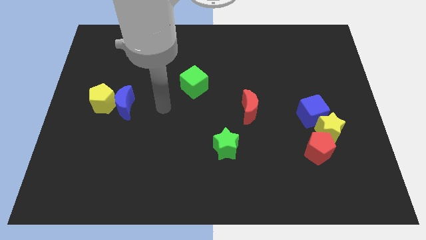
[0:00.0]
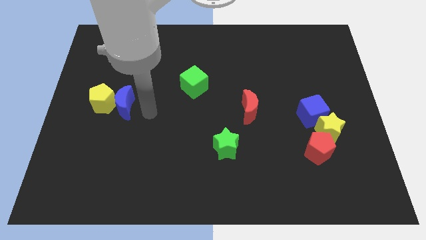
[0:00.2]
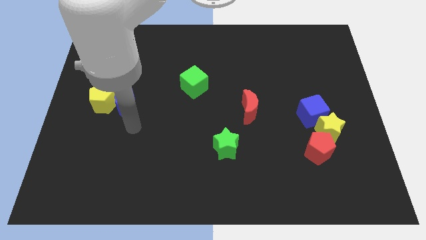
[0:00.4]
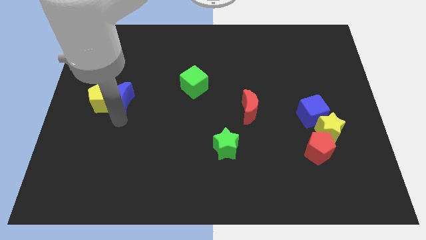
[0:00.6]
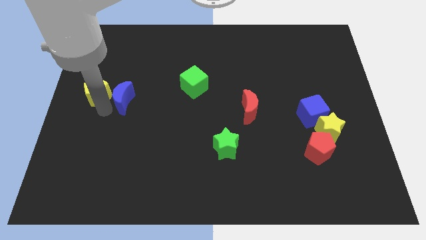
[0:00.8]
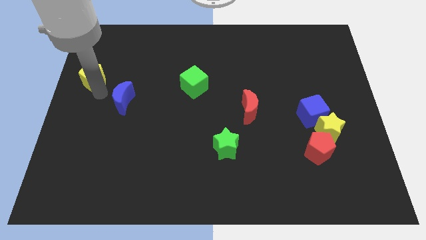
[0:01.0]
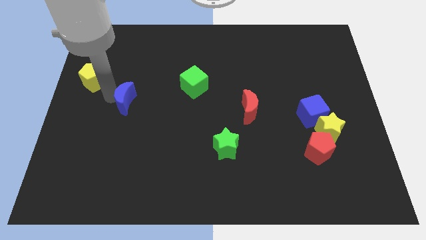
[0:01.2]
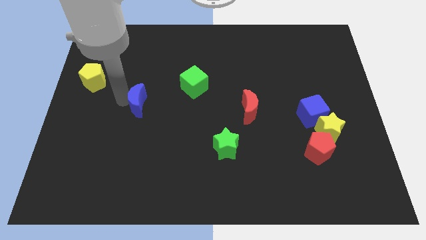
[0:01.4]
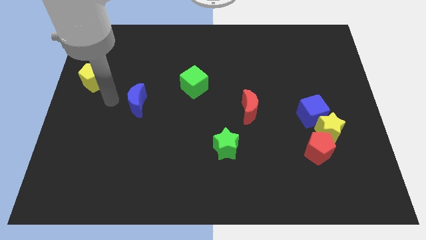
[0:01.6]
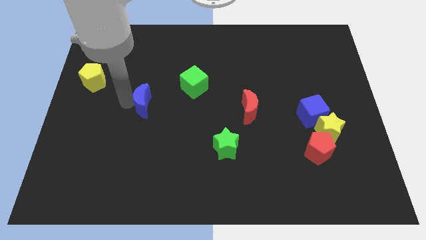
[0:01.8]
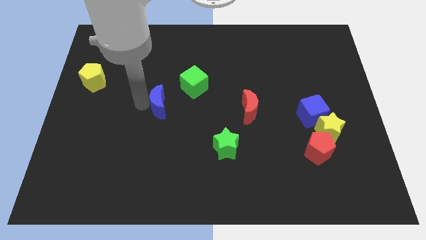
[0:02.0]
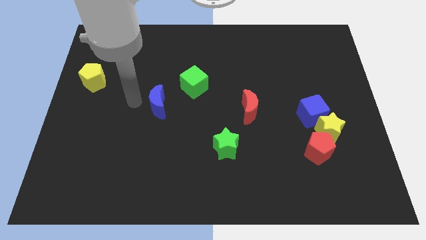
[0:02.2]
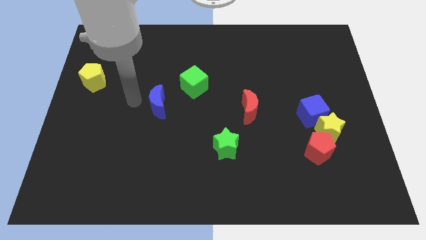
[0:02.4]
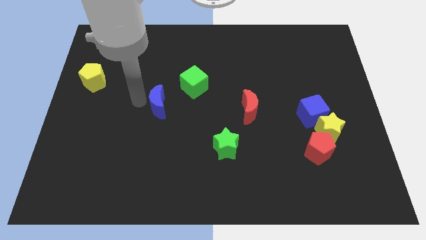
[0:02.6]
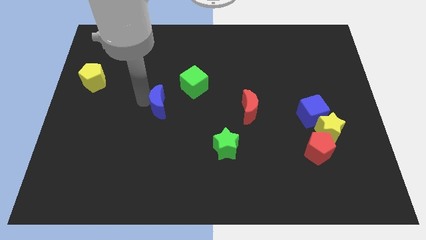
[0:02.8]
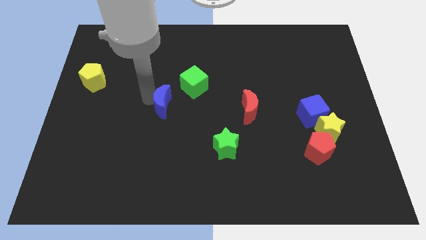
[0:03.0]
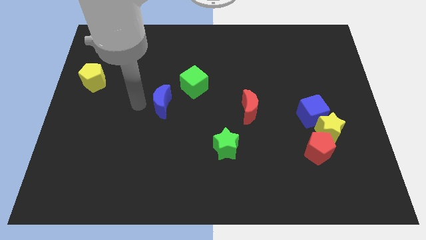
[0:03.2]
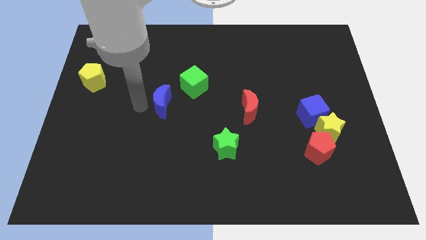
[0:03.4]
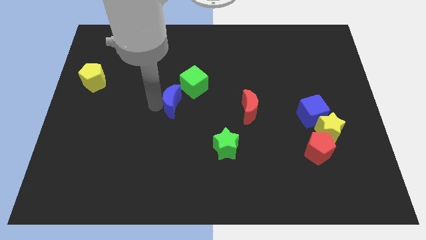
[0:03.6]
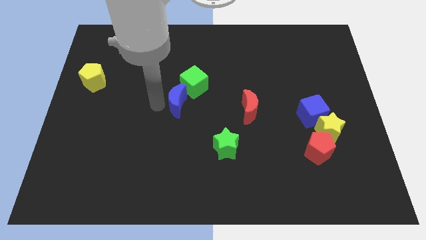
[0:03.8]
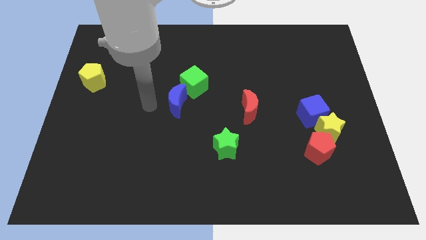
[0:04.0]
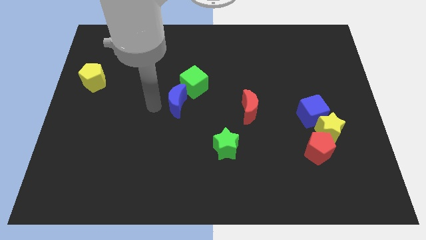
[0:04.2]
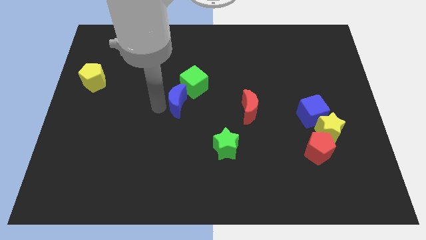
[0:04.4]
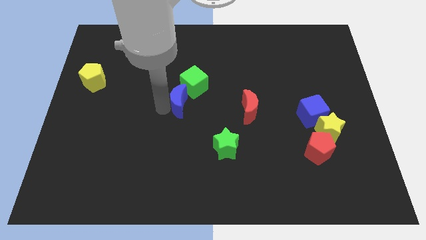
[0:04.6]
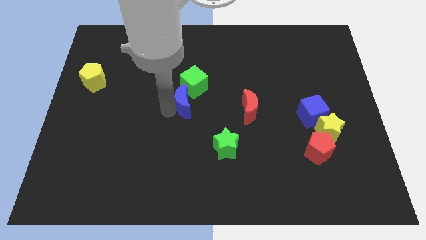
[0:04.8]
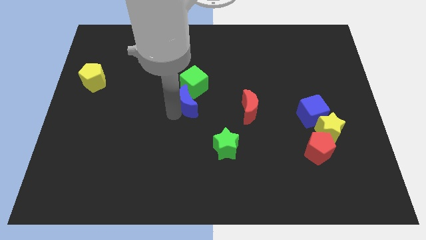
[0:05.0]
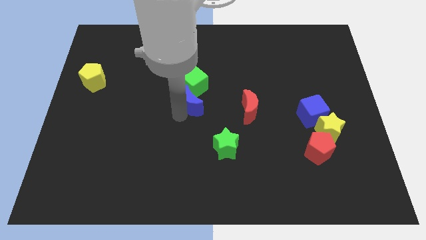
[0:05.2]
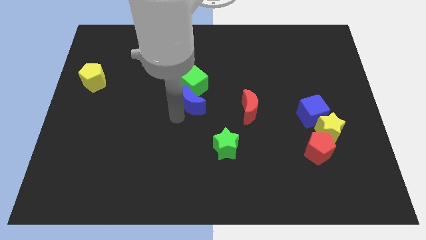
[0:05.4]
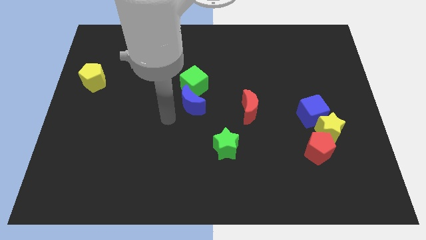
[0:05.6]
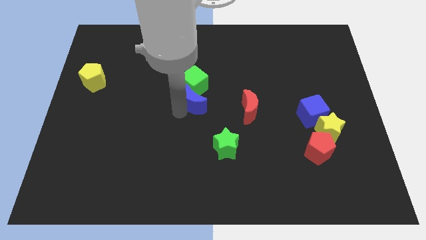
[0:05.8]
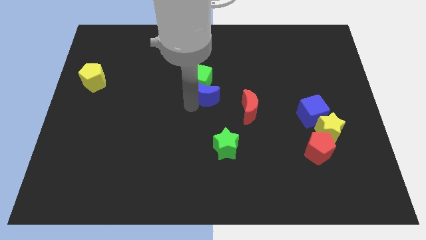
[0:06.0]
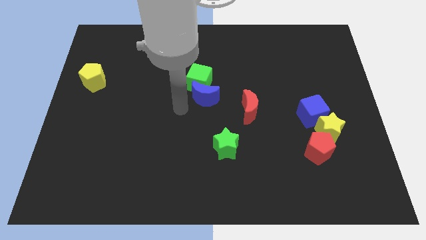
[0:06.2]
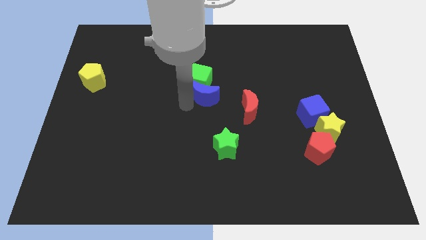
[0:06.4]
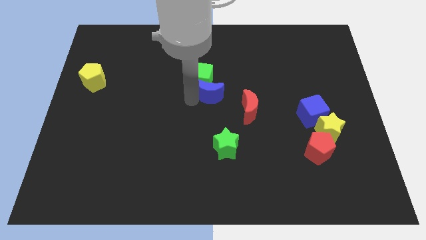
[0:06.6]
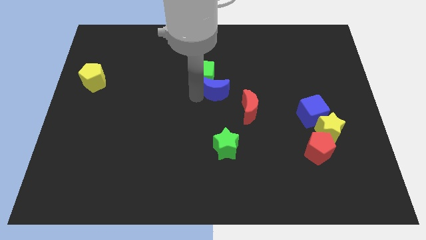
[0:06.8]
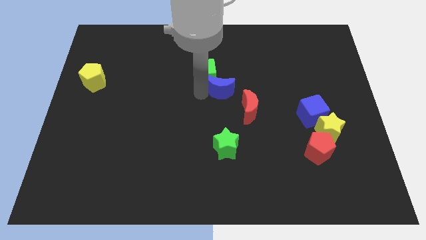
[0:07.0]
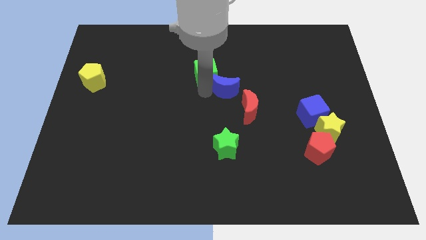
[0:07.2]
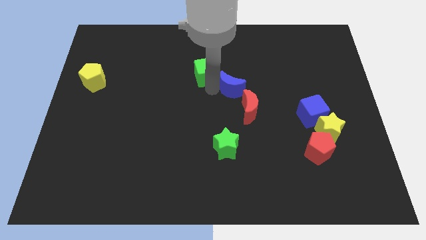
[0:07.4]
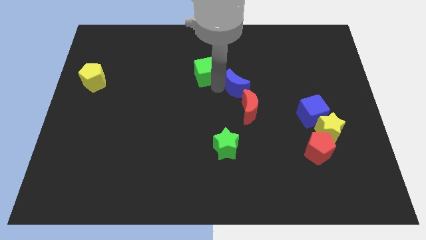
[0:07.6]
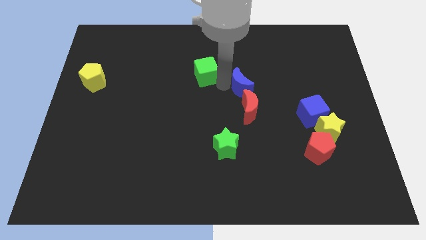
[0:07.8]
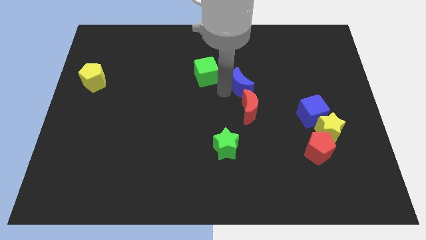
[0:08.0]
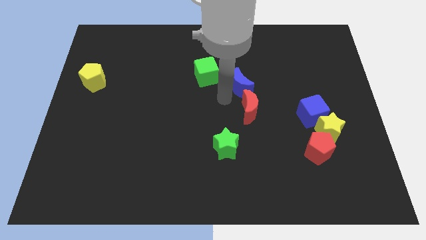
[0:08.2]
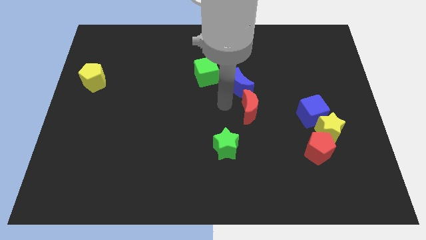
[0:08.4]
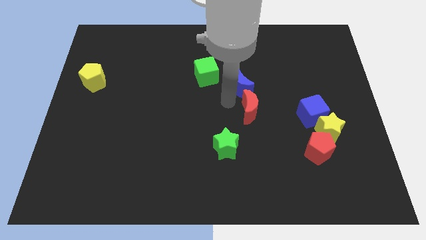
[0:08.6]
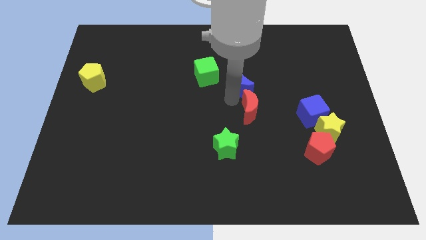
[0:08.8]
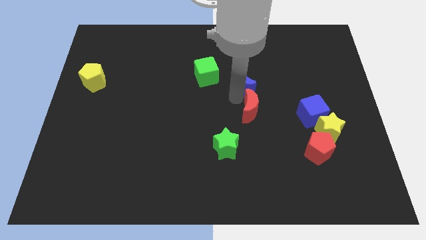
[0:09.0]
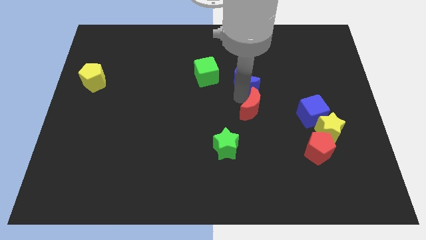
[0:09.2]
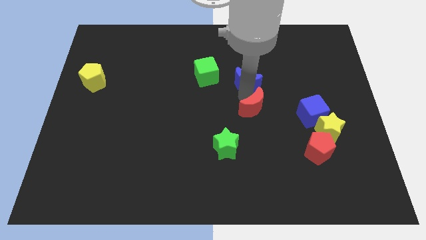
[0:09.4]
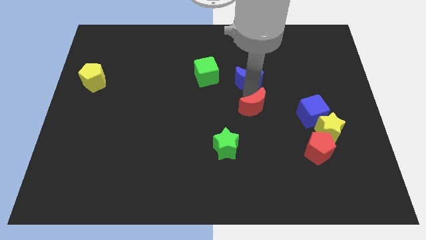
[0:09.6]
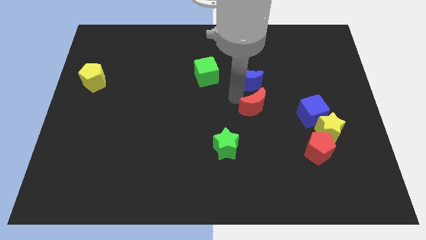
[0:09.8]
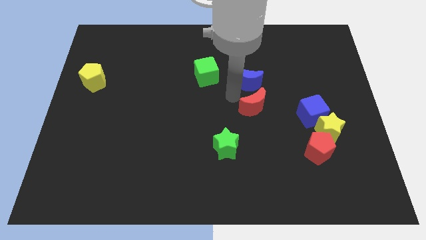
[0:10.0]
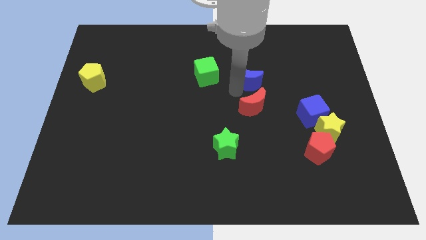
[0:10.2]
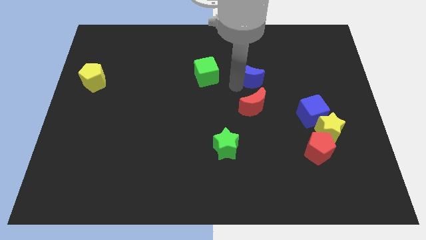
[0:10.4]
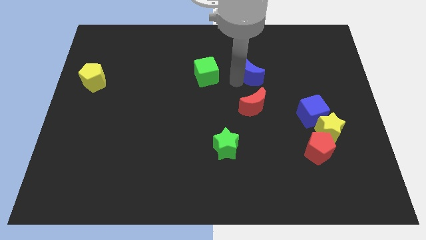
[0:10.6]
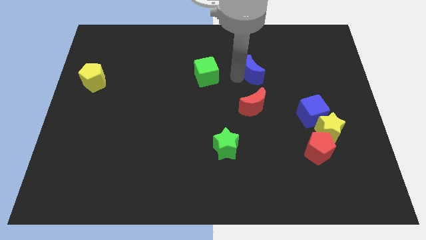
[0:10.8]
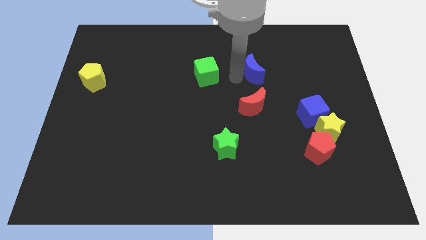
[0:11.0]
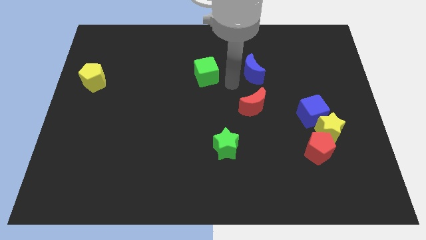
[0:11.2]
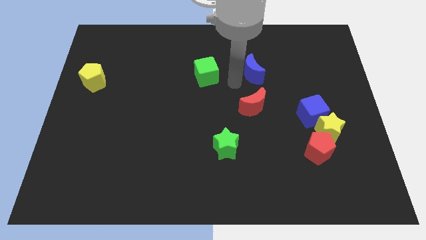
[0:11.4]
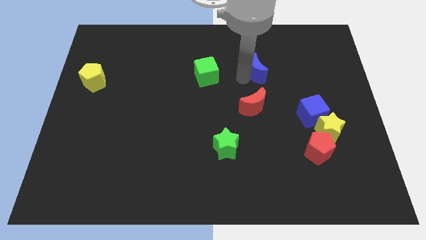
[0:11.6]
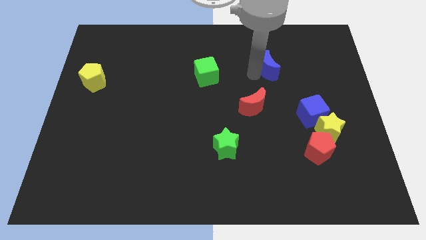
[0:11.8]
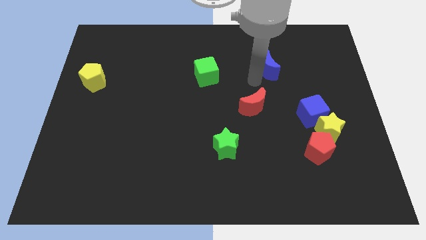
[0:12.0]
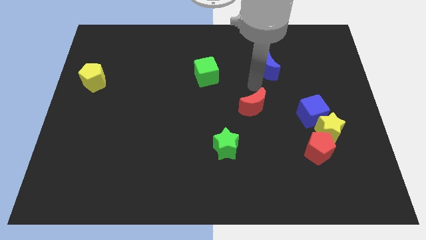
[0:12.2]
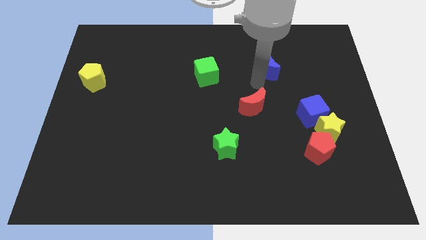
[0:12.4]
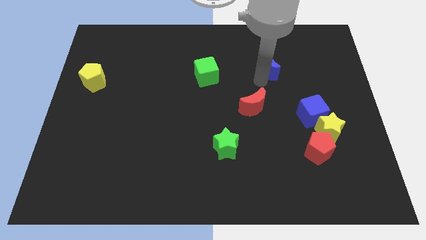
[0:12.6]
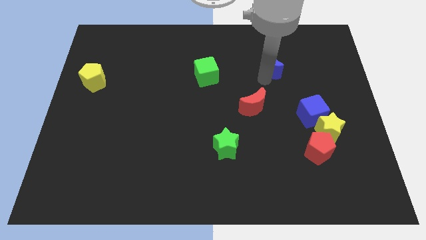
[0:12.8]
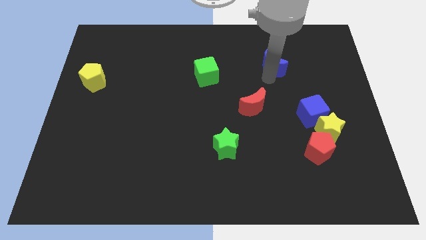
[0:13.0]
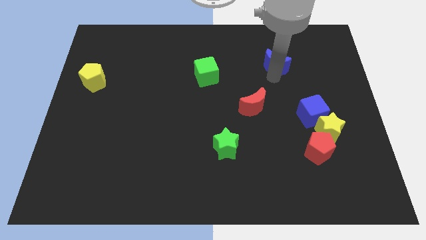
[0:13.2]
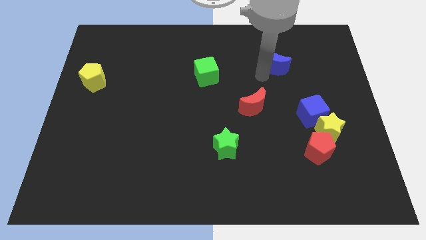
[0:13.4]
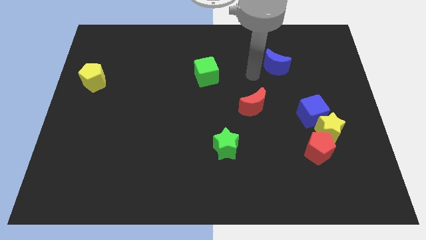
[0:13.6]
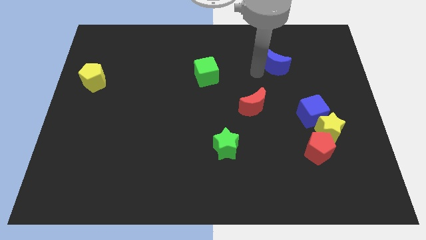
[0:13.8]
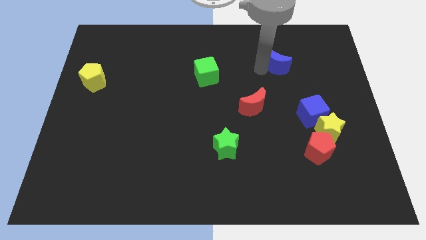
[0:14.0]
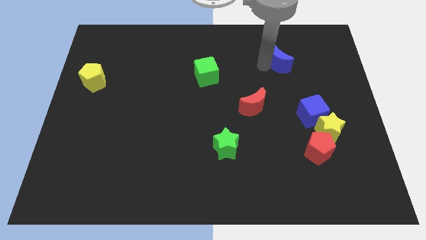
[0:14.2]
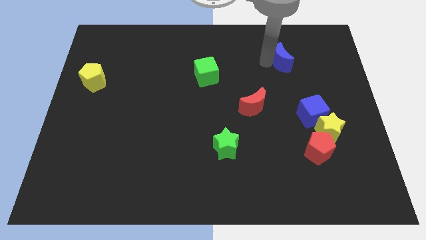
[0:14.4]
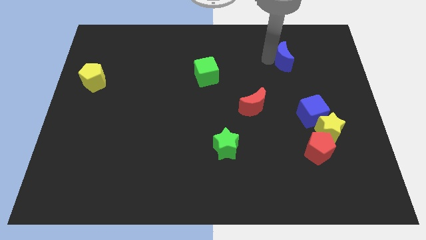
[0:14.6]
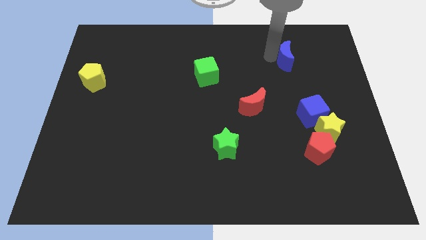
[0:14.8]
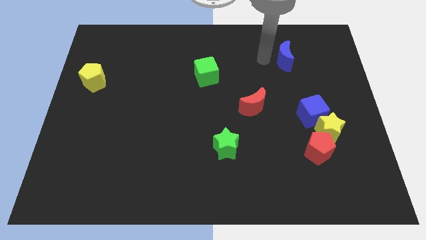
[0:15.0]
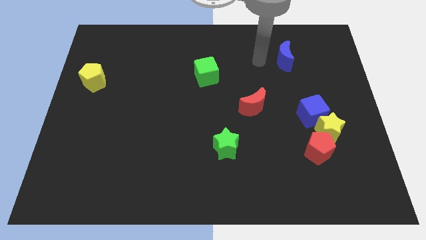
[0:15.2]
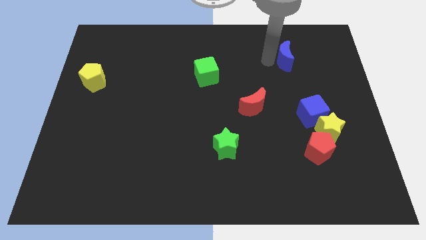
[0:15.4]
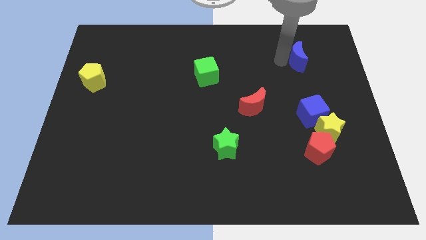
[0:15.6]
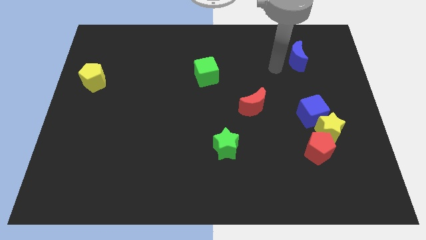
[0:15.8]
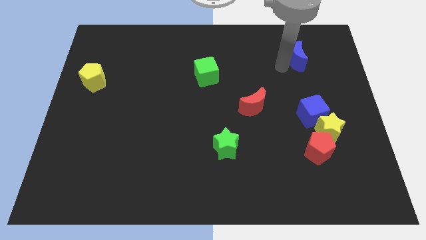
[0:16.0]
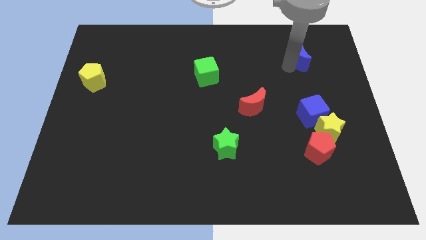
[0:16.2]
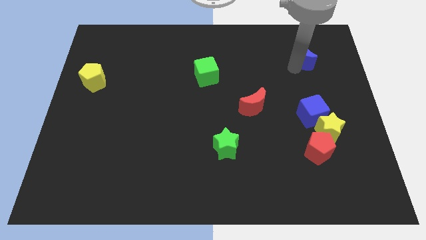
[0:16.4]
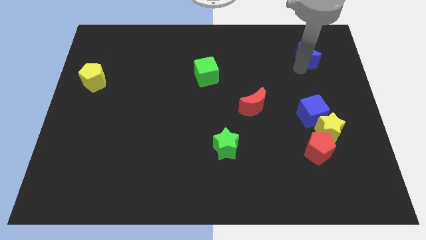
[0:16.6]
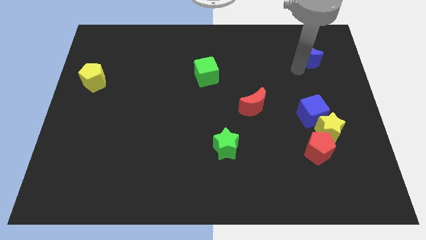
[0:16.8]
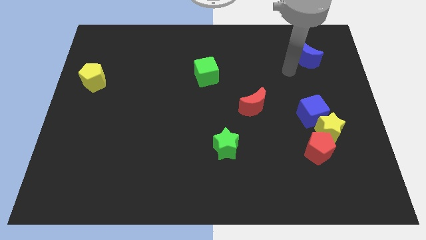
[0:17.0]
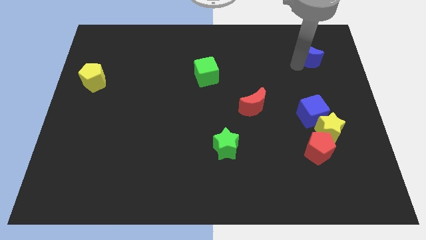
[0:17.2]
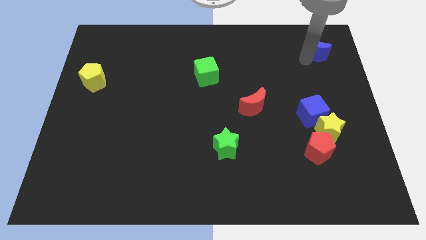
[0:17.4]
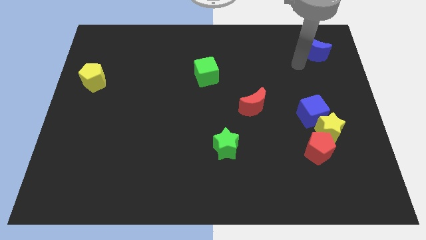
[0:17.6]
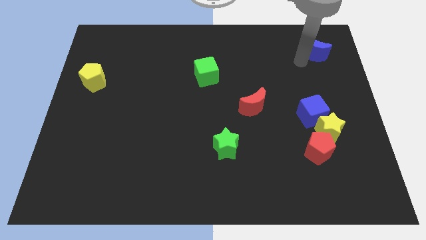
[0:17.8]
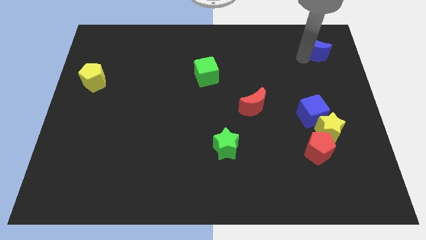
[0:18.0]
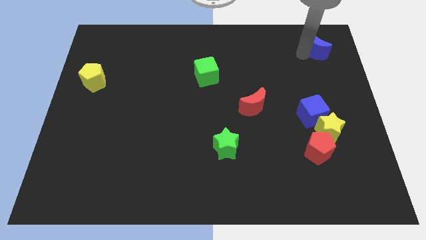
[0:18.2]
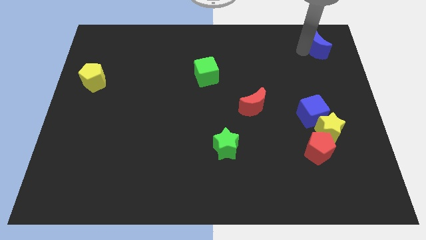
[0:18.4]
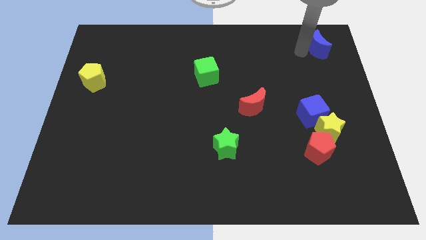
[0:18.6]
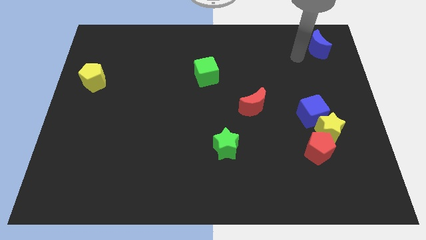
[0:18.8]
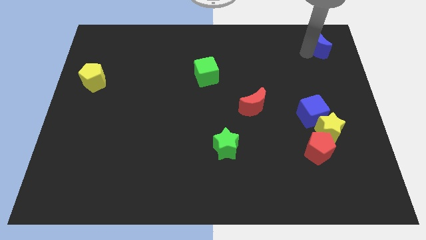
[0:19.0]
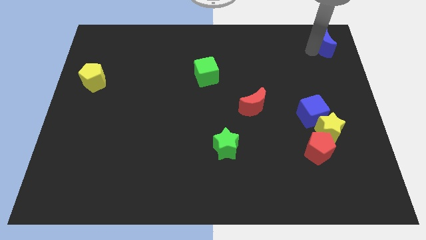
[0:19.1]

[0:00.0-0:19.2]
slide the blue moon to the top right of the board
